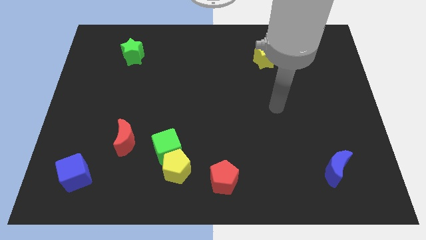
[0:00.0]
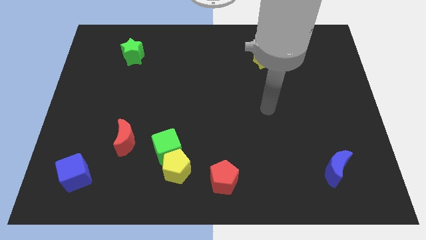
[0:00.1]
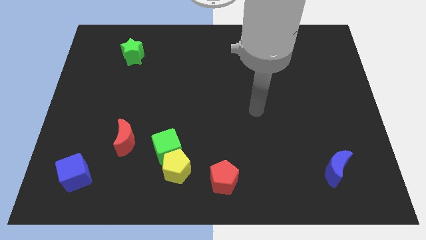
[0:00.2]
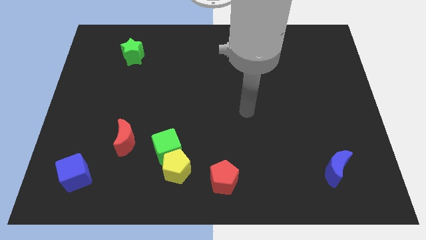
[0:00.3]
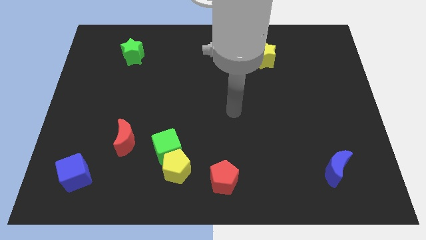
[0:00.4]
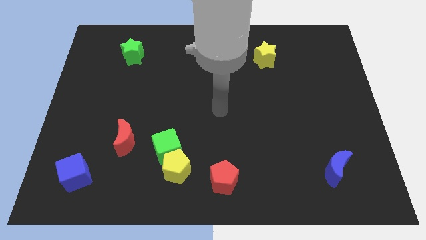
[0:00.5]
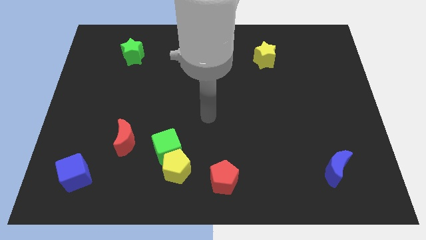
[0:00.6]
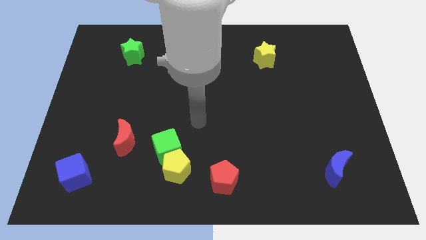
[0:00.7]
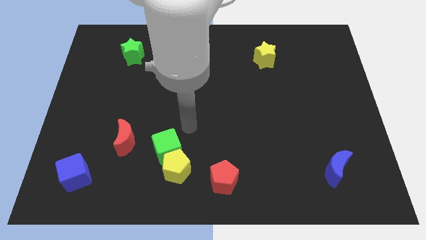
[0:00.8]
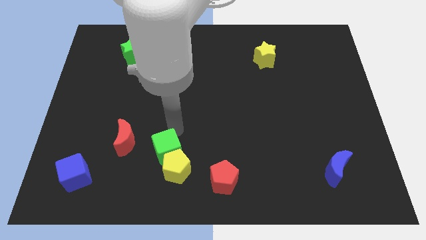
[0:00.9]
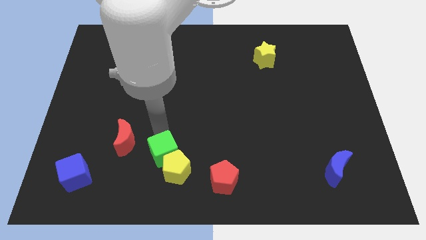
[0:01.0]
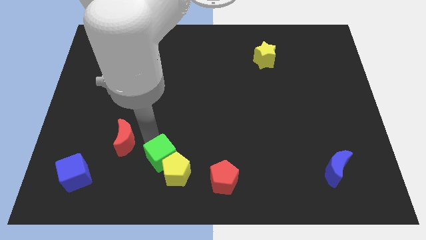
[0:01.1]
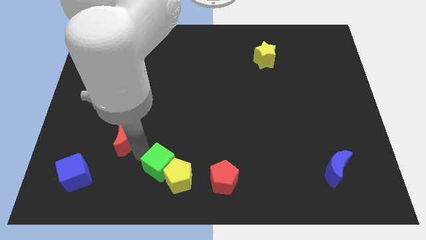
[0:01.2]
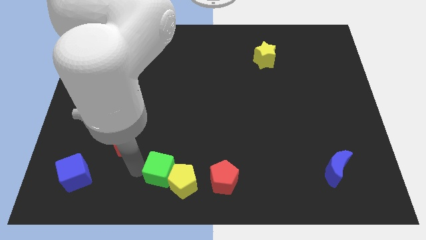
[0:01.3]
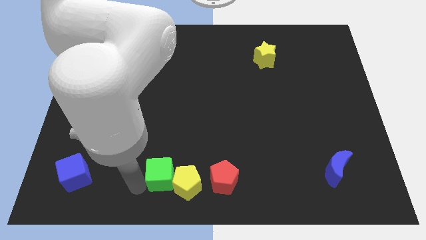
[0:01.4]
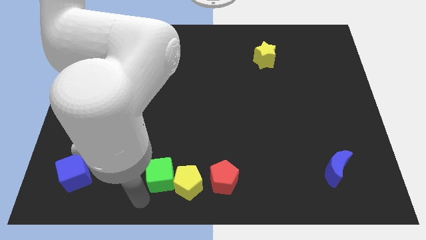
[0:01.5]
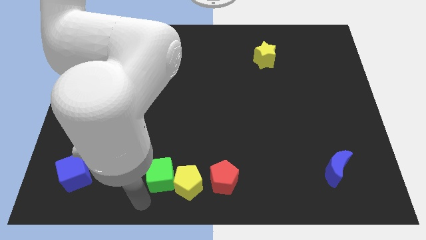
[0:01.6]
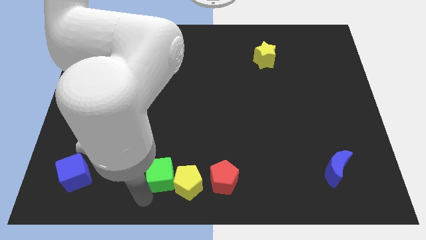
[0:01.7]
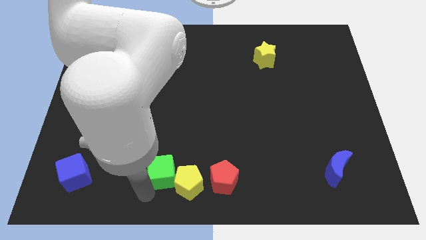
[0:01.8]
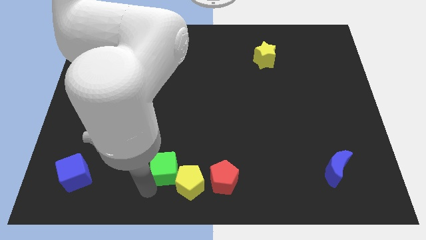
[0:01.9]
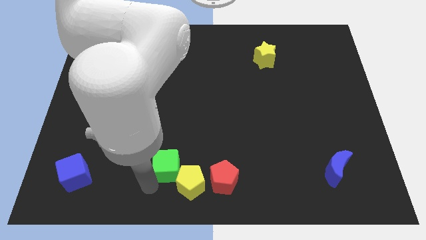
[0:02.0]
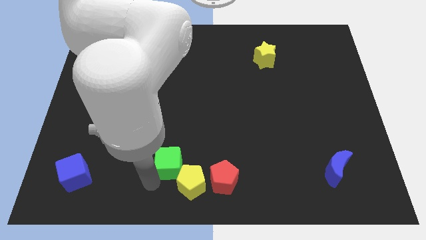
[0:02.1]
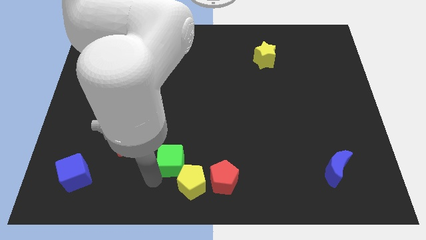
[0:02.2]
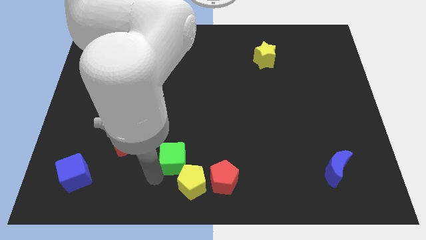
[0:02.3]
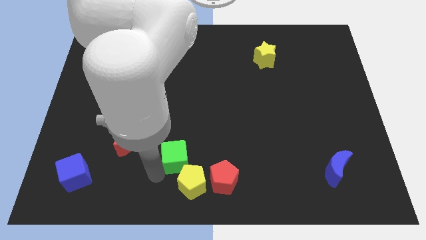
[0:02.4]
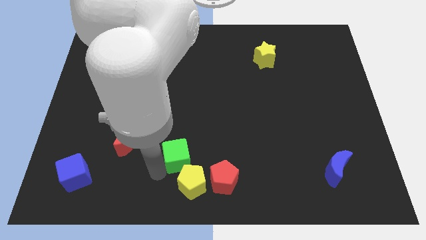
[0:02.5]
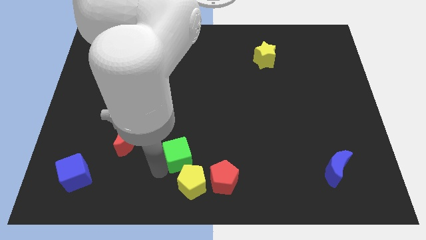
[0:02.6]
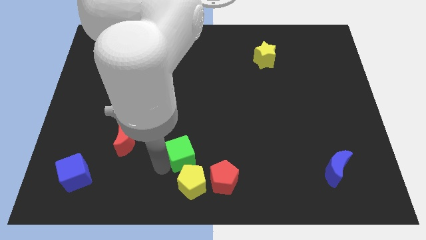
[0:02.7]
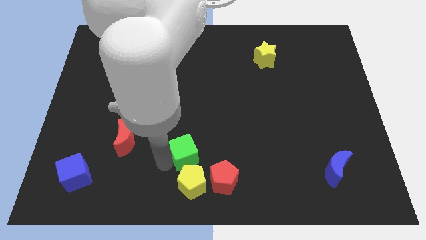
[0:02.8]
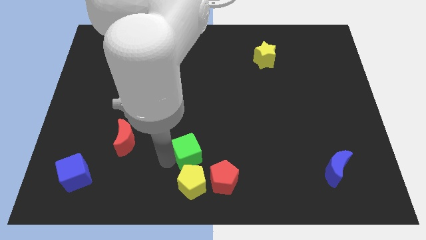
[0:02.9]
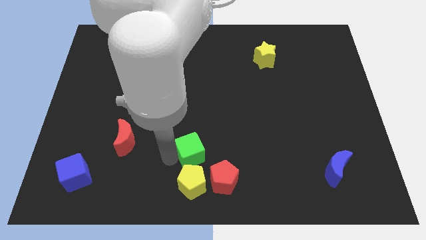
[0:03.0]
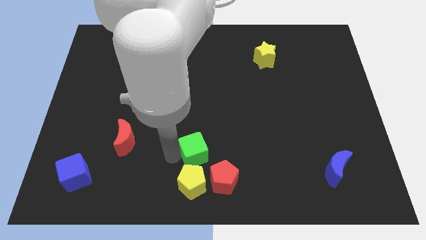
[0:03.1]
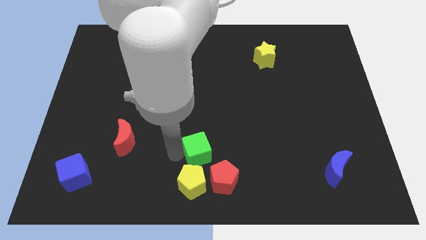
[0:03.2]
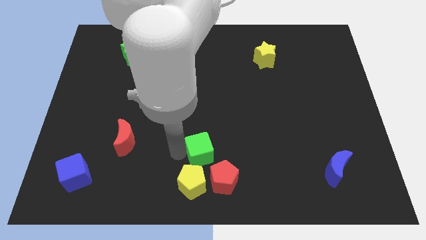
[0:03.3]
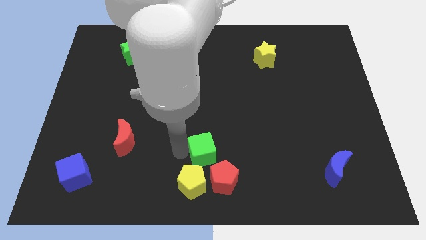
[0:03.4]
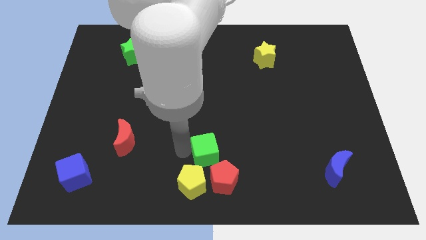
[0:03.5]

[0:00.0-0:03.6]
pull the green cube apart from the yellow pentagon and red moon

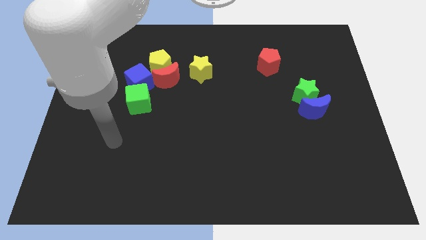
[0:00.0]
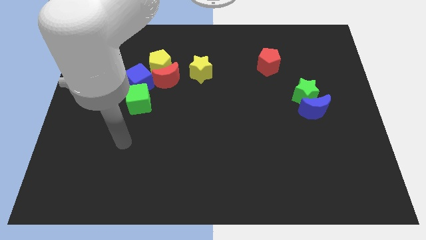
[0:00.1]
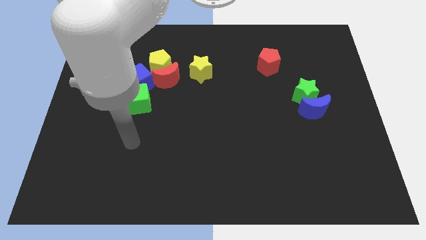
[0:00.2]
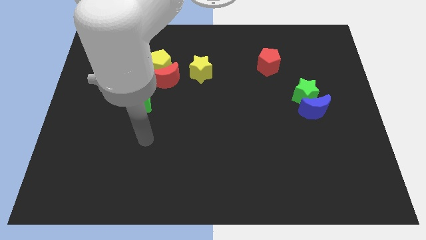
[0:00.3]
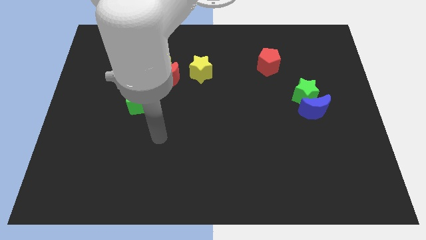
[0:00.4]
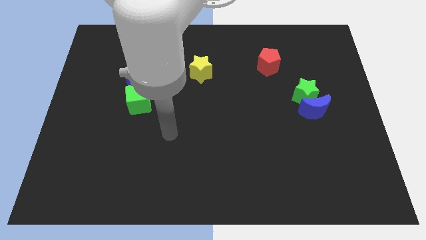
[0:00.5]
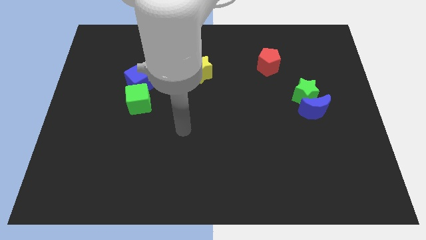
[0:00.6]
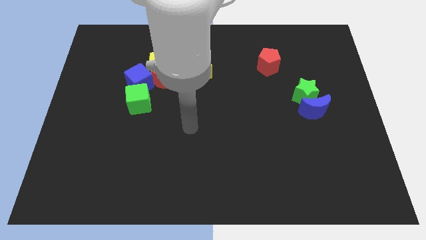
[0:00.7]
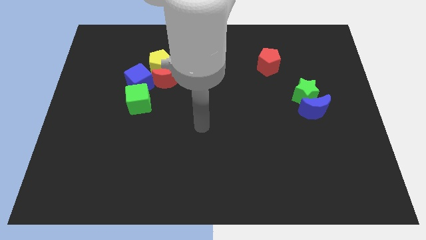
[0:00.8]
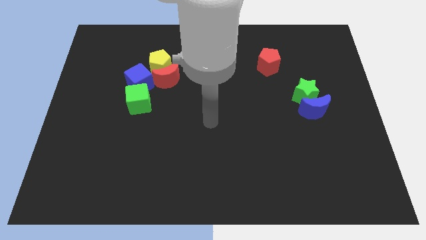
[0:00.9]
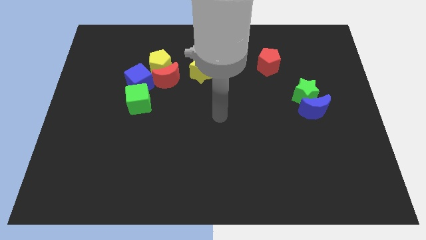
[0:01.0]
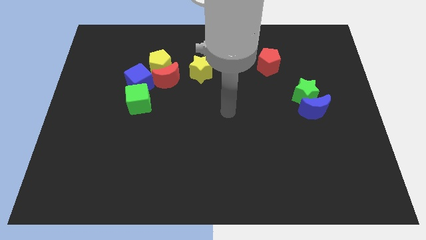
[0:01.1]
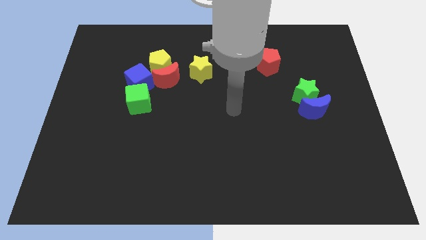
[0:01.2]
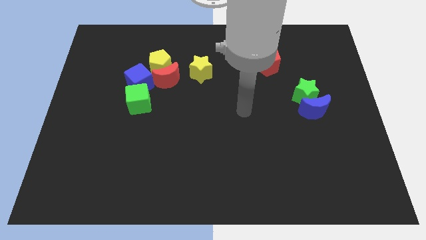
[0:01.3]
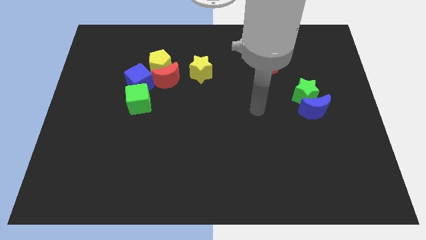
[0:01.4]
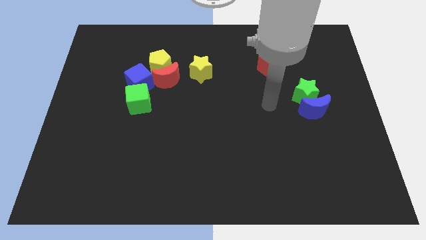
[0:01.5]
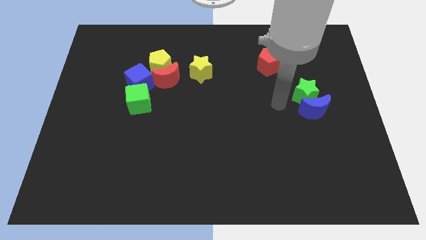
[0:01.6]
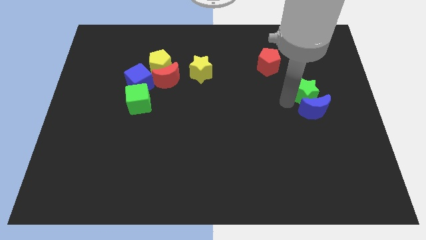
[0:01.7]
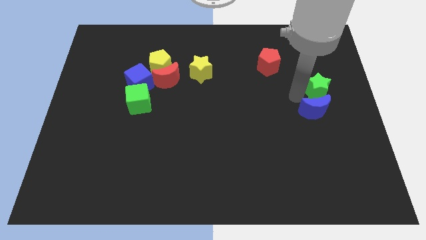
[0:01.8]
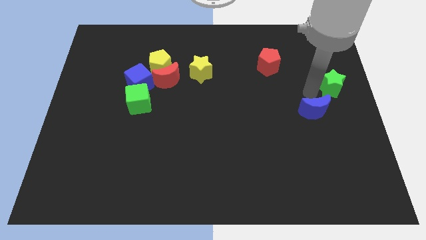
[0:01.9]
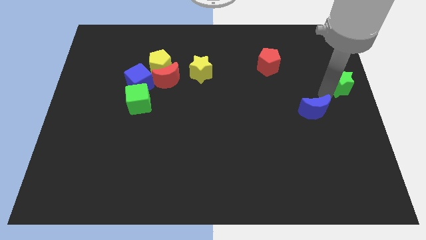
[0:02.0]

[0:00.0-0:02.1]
separate the blue moon from the green star

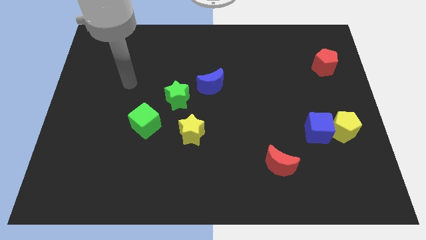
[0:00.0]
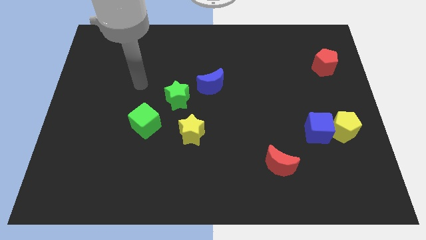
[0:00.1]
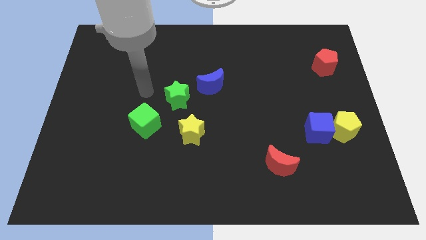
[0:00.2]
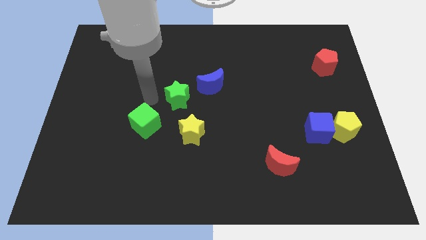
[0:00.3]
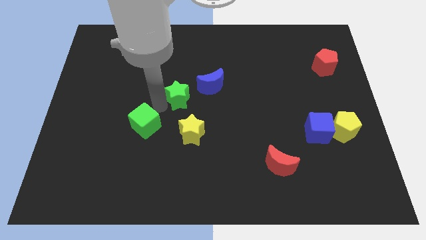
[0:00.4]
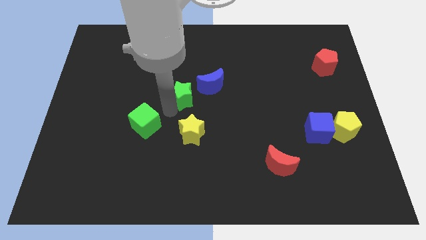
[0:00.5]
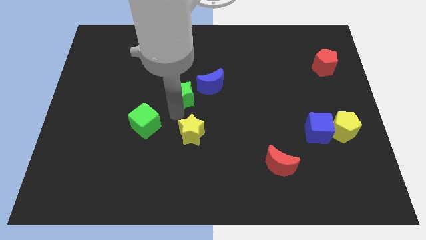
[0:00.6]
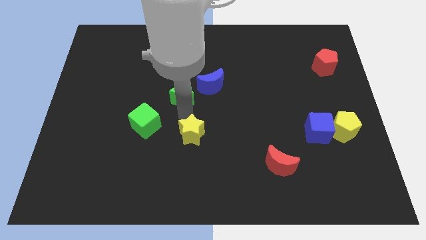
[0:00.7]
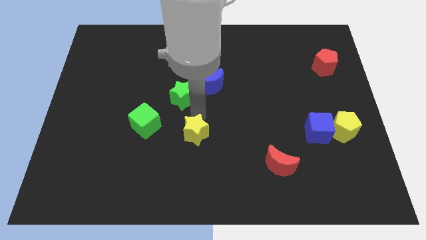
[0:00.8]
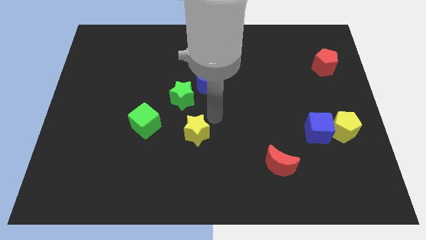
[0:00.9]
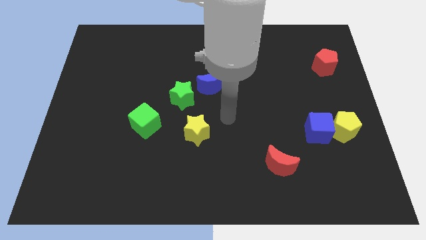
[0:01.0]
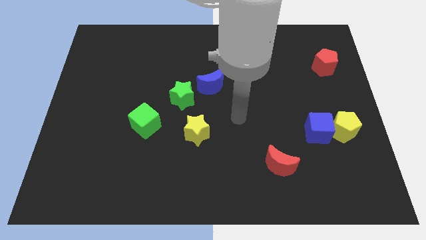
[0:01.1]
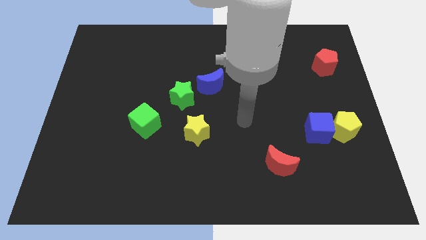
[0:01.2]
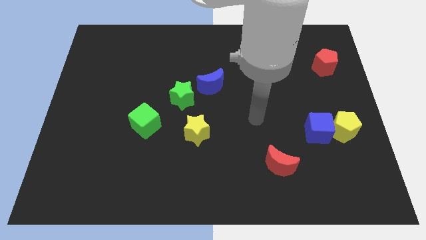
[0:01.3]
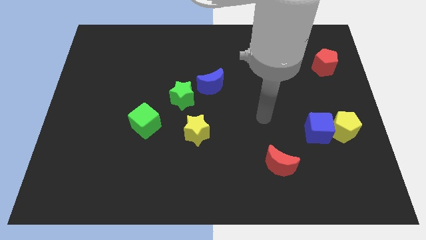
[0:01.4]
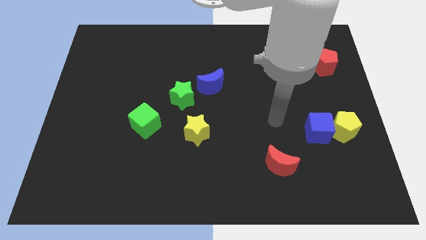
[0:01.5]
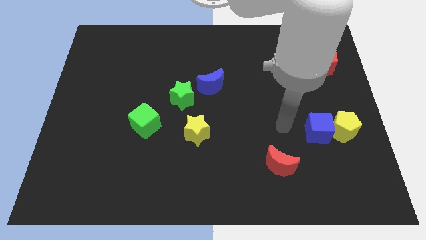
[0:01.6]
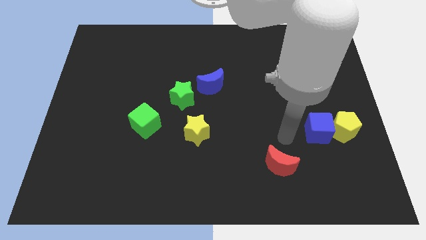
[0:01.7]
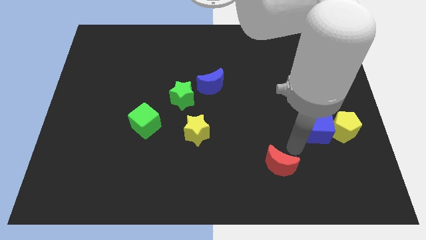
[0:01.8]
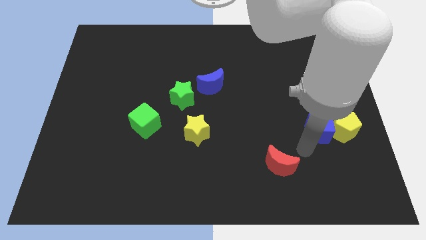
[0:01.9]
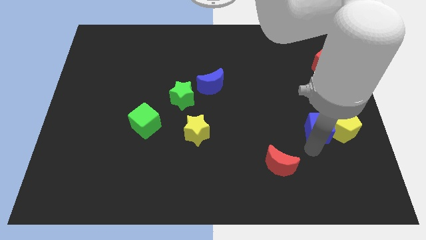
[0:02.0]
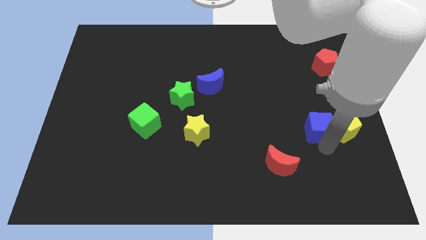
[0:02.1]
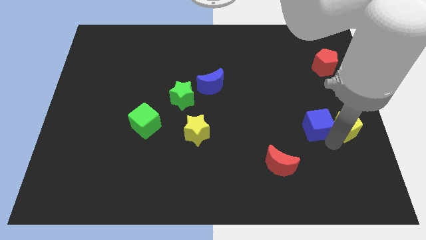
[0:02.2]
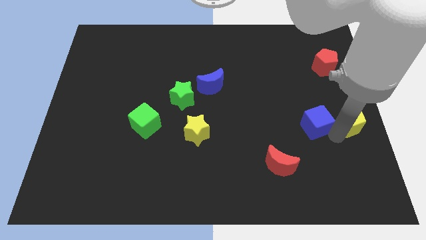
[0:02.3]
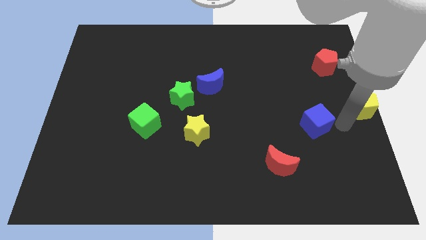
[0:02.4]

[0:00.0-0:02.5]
separate the blue cube from the yellow pentagon

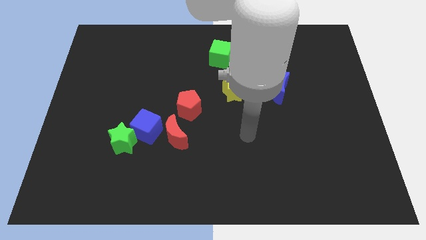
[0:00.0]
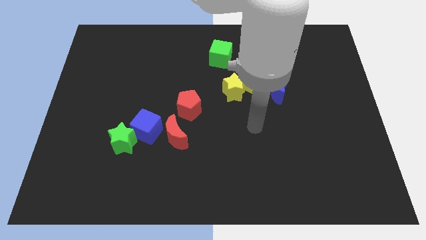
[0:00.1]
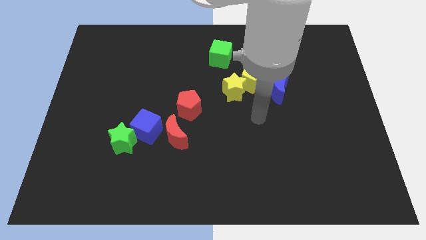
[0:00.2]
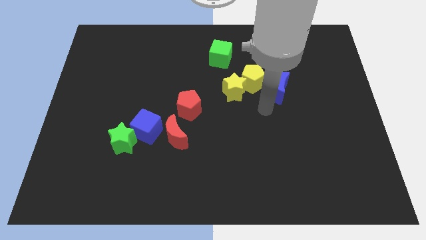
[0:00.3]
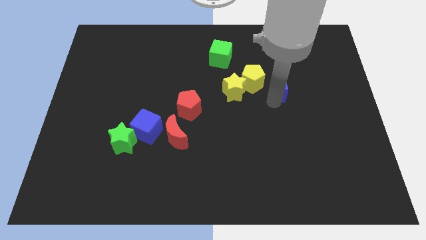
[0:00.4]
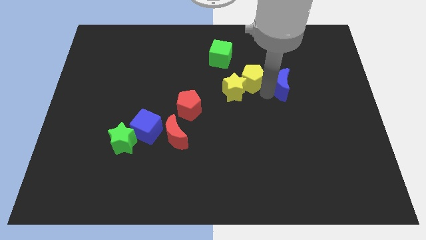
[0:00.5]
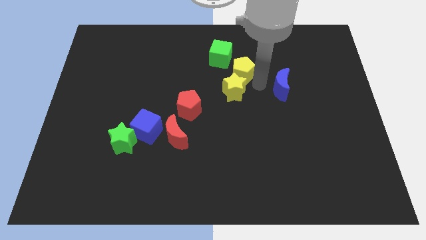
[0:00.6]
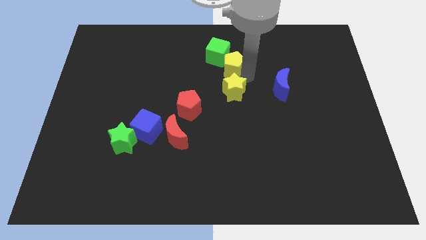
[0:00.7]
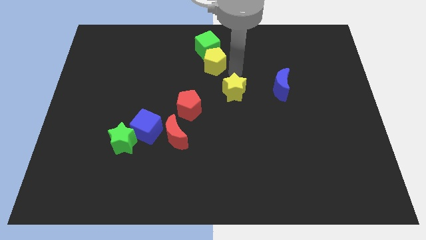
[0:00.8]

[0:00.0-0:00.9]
pull the yellow star apart from the yellow pentagon

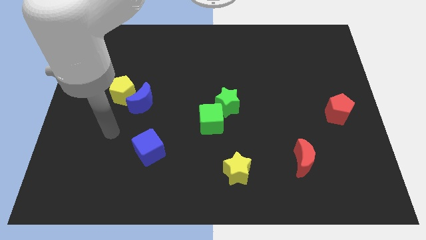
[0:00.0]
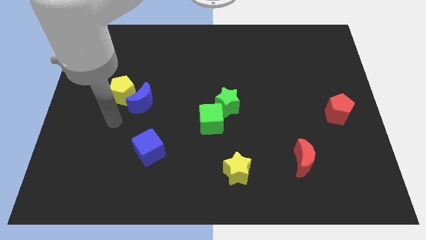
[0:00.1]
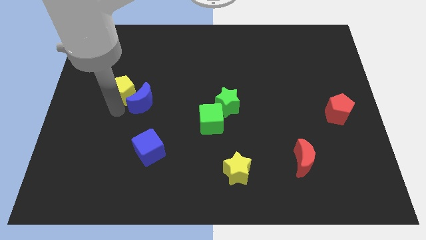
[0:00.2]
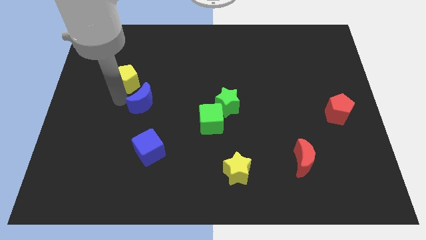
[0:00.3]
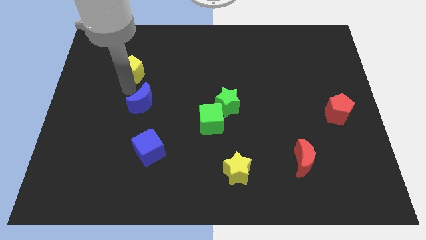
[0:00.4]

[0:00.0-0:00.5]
separate the blue moon from the yellow pentagon
